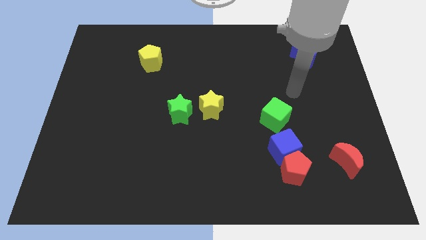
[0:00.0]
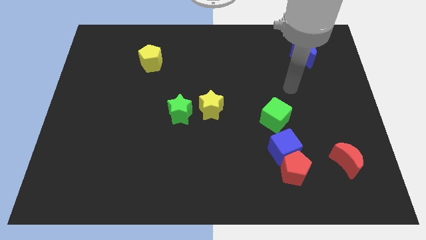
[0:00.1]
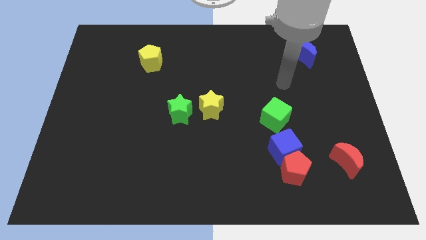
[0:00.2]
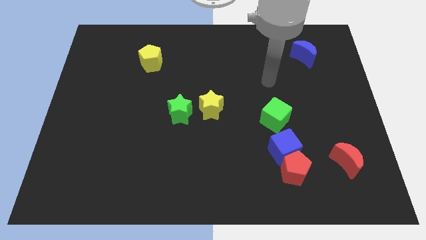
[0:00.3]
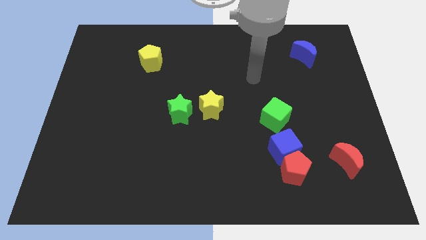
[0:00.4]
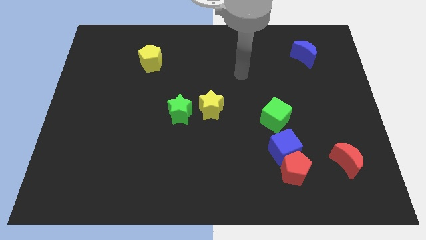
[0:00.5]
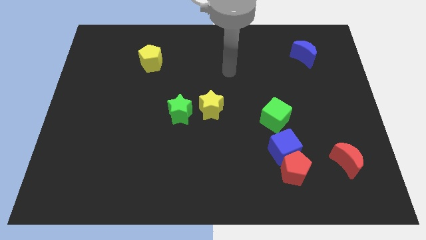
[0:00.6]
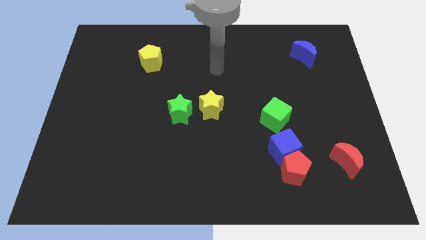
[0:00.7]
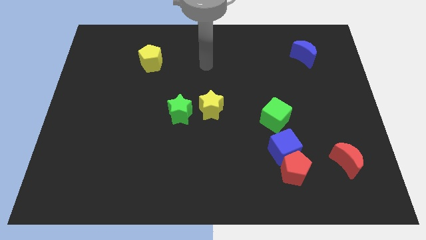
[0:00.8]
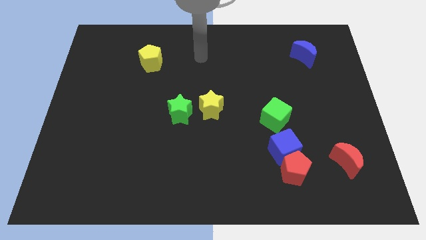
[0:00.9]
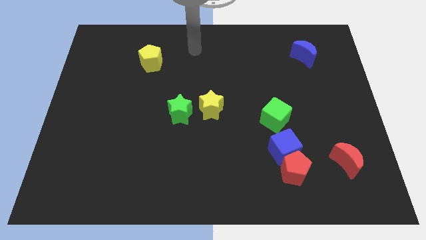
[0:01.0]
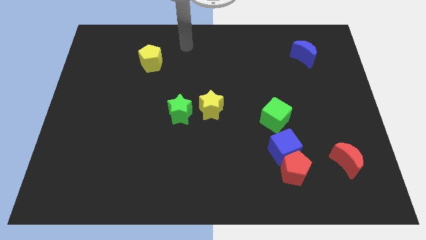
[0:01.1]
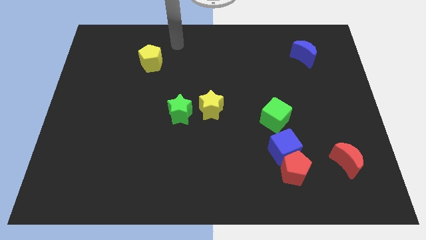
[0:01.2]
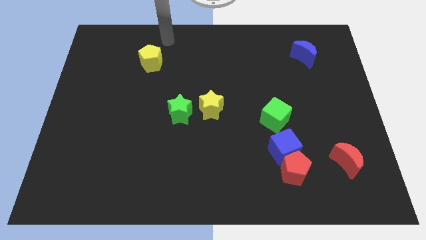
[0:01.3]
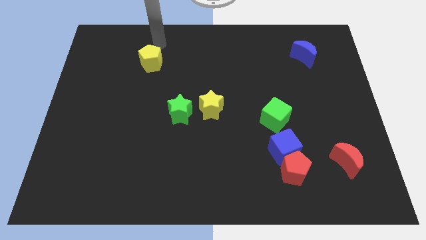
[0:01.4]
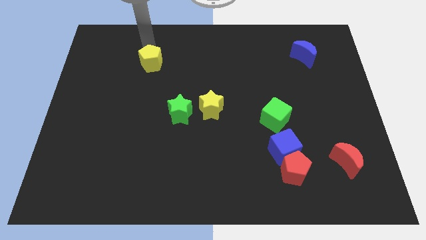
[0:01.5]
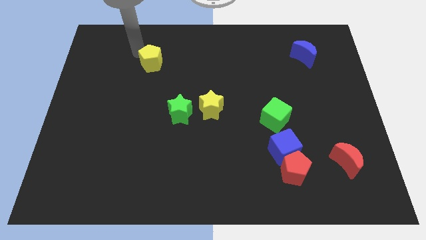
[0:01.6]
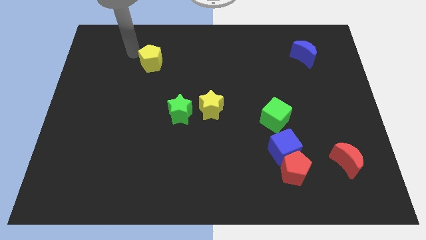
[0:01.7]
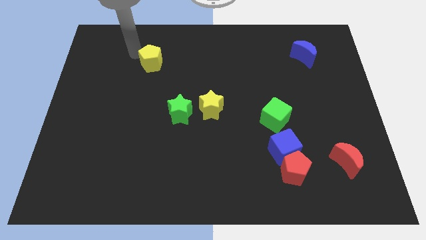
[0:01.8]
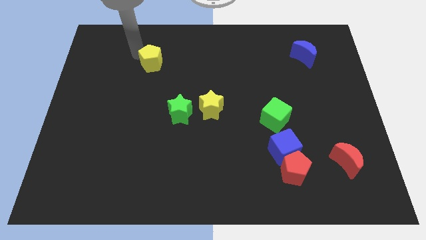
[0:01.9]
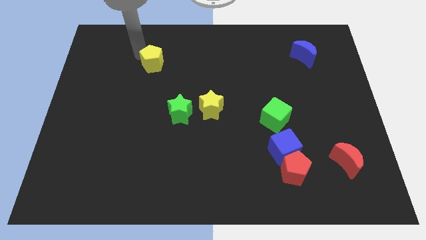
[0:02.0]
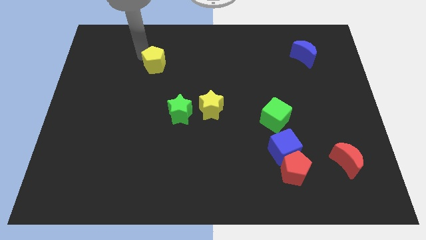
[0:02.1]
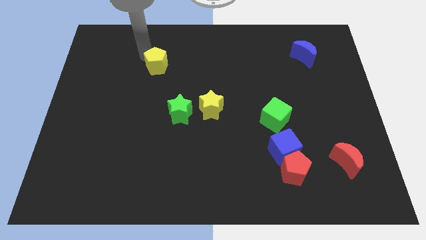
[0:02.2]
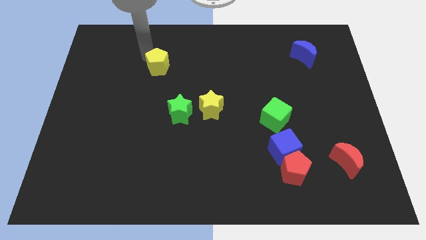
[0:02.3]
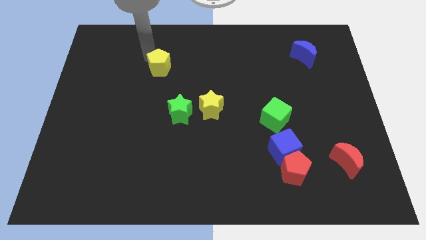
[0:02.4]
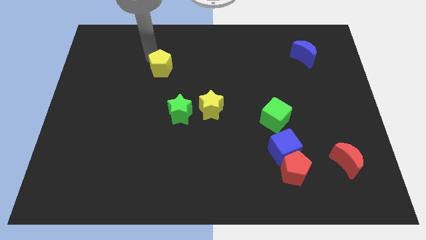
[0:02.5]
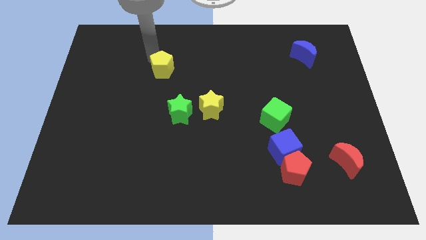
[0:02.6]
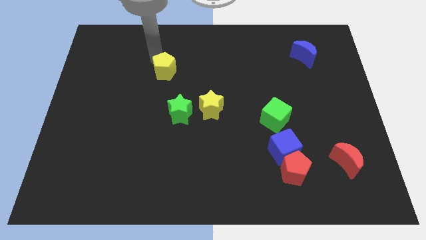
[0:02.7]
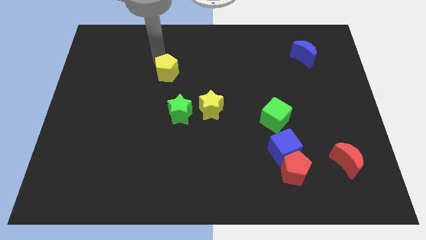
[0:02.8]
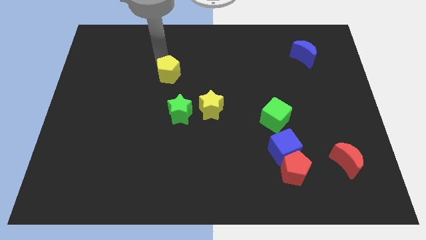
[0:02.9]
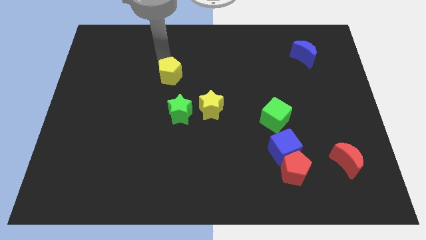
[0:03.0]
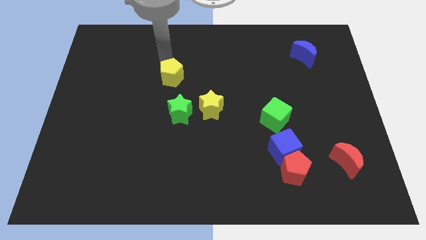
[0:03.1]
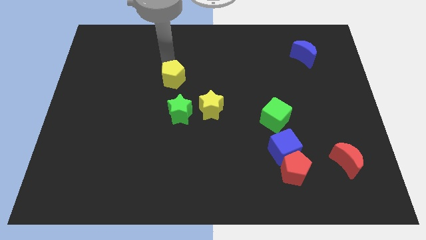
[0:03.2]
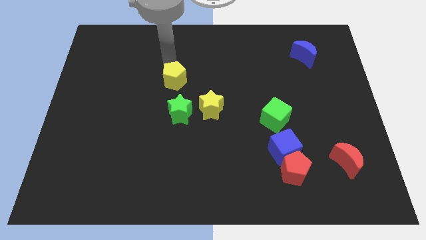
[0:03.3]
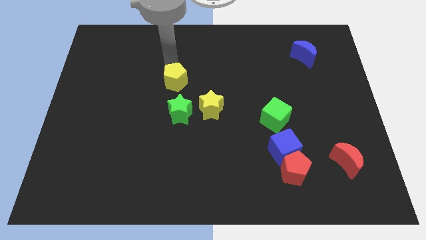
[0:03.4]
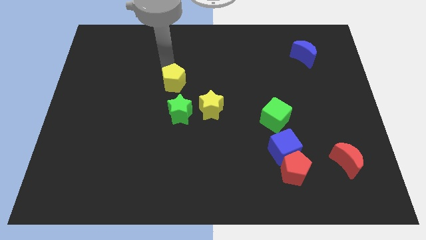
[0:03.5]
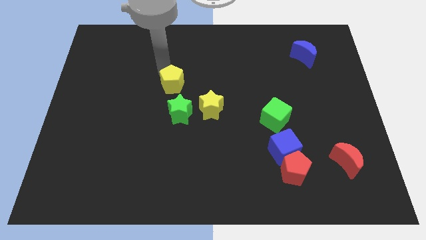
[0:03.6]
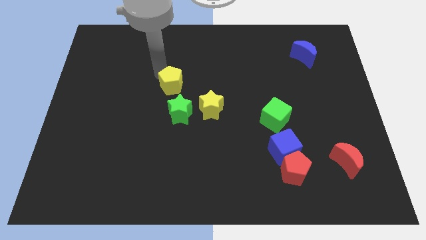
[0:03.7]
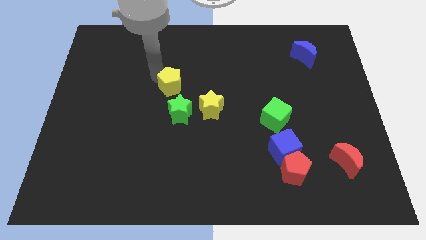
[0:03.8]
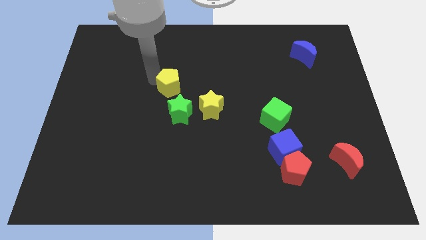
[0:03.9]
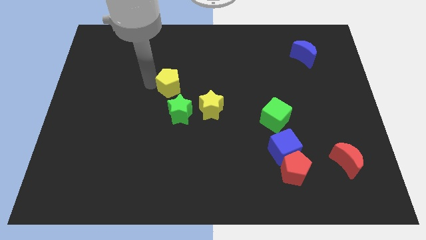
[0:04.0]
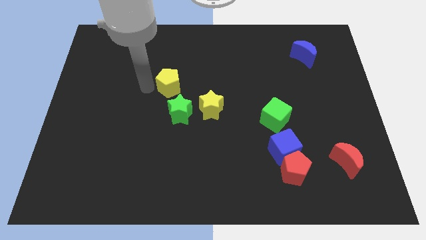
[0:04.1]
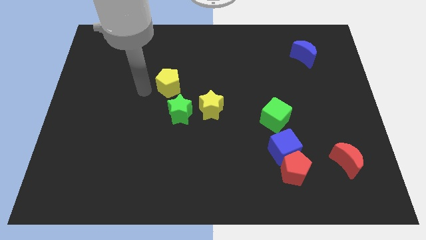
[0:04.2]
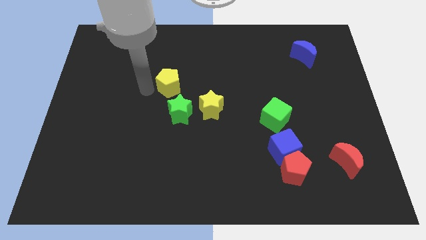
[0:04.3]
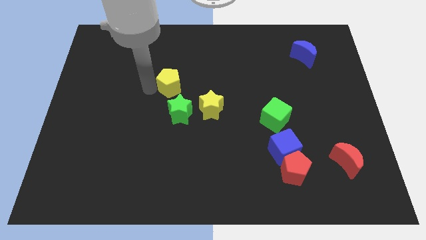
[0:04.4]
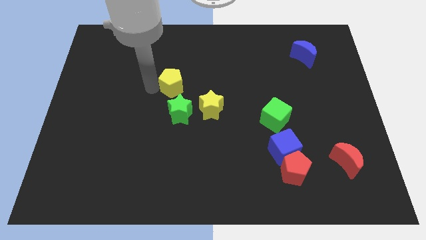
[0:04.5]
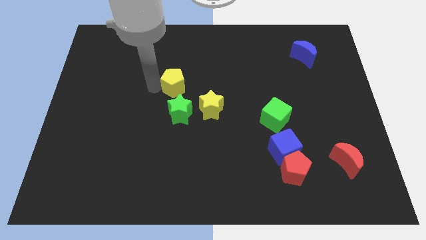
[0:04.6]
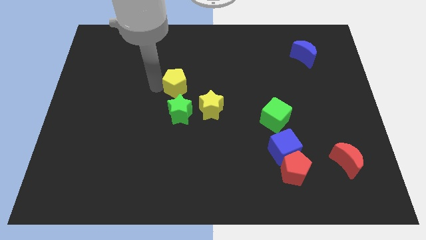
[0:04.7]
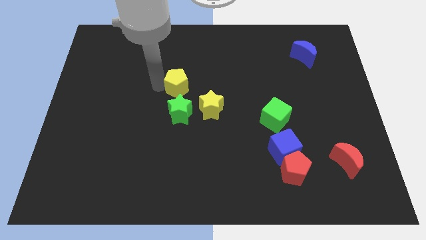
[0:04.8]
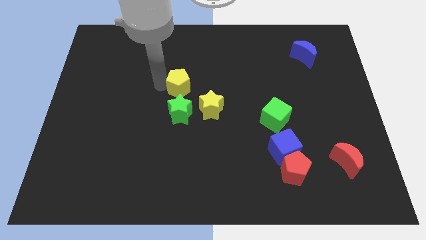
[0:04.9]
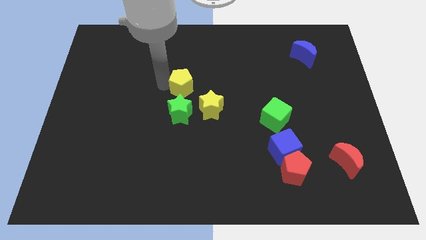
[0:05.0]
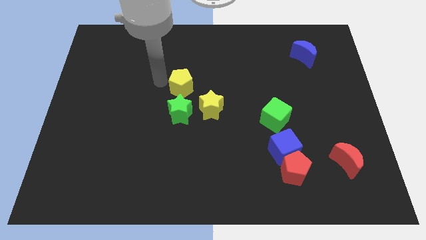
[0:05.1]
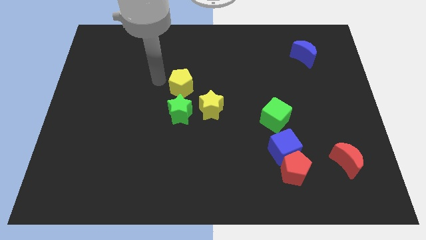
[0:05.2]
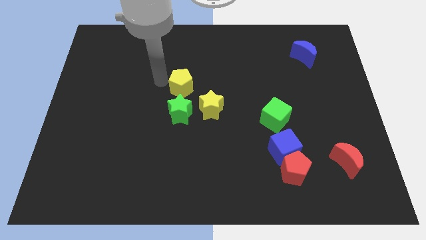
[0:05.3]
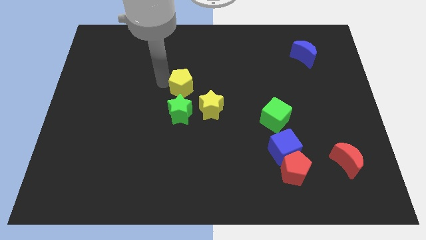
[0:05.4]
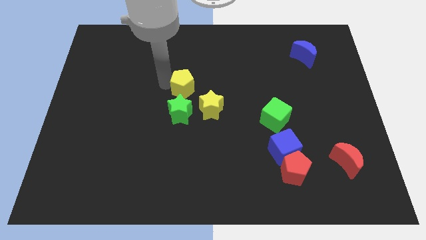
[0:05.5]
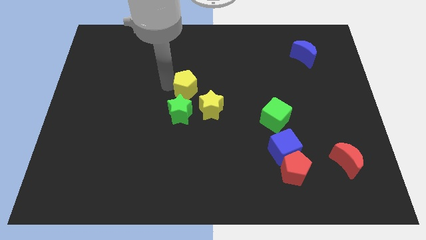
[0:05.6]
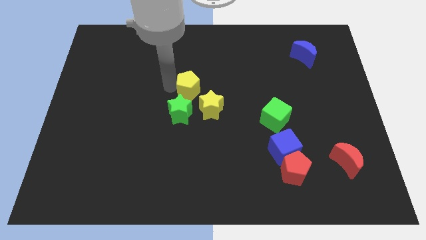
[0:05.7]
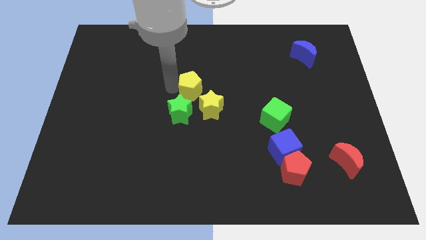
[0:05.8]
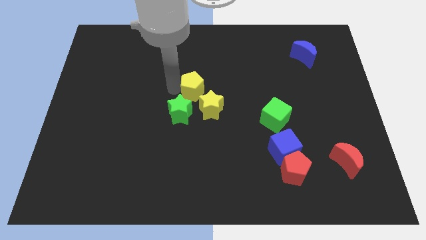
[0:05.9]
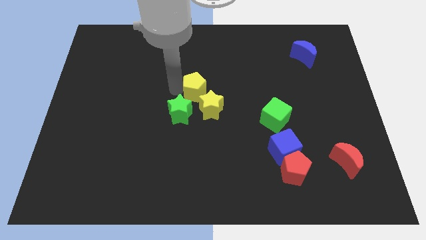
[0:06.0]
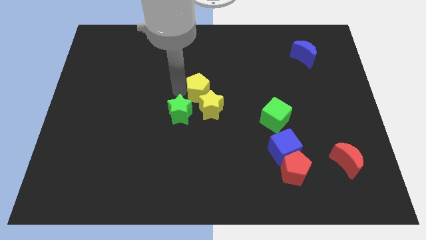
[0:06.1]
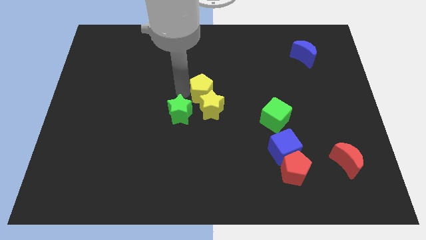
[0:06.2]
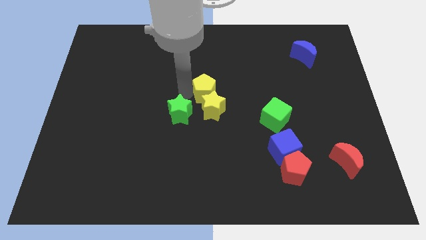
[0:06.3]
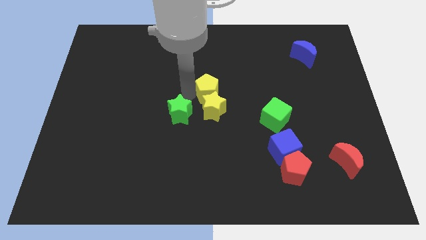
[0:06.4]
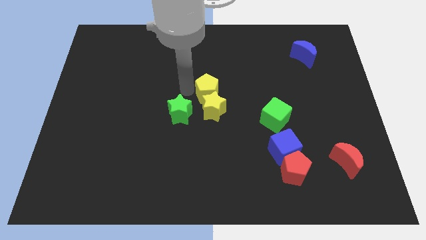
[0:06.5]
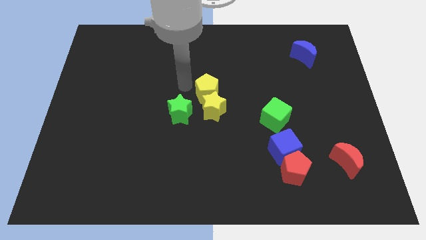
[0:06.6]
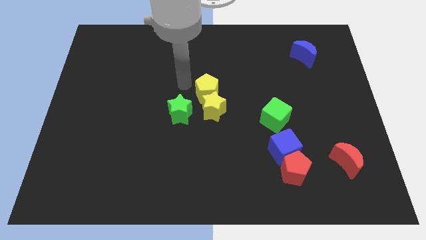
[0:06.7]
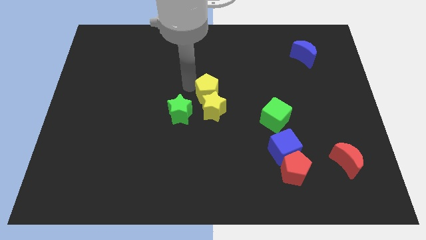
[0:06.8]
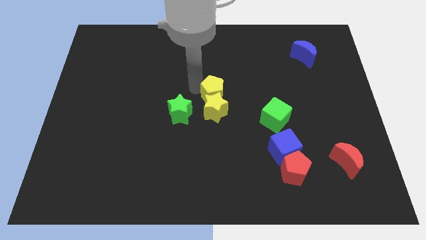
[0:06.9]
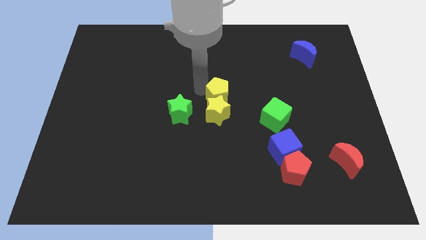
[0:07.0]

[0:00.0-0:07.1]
push the yellow pentagon diagonally down and to the right
